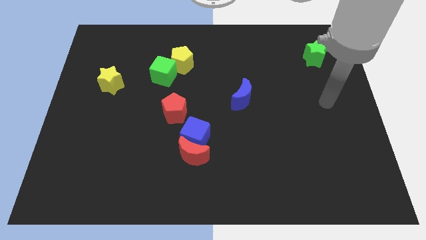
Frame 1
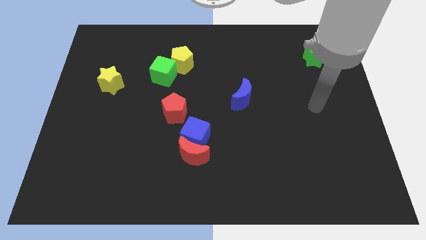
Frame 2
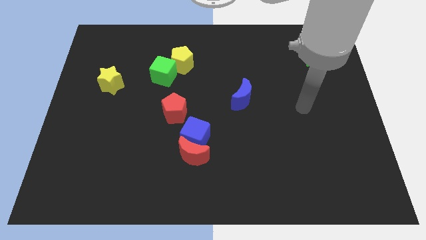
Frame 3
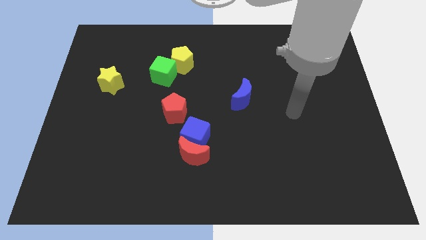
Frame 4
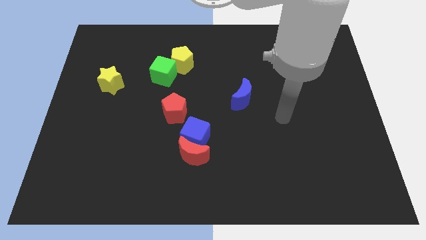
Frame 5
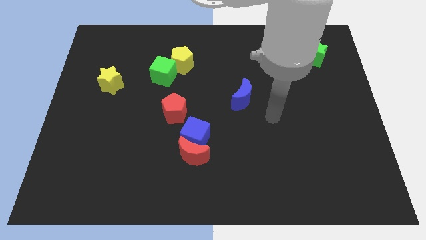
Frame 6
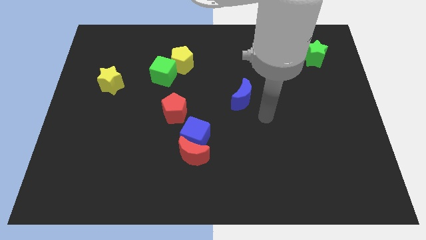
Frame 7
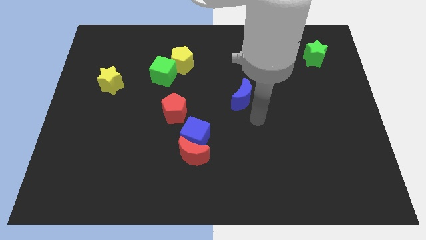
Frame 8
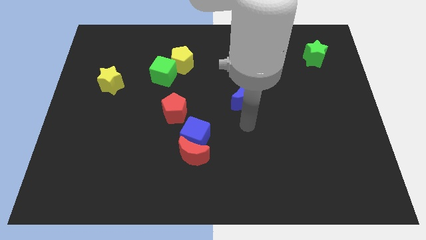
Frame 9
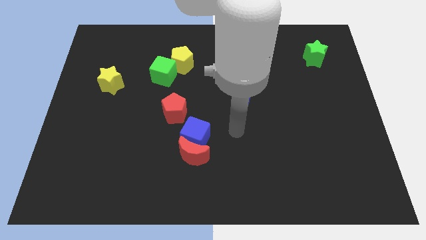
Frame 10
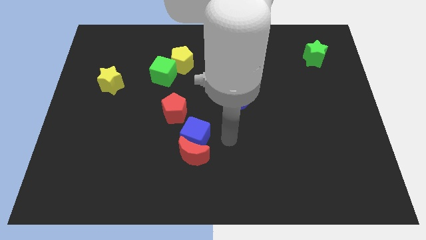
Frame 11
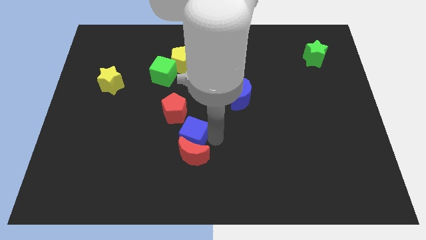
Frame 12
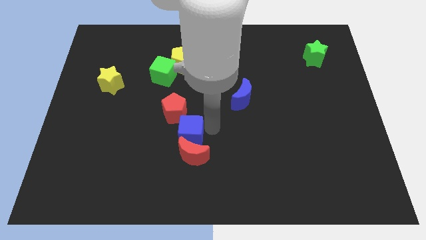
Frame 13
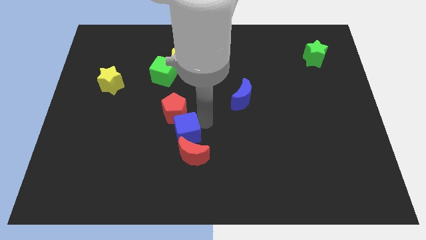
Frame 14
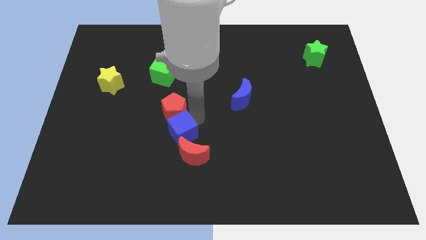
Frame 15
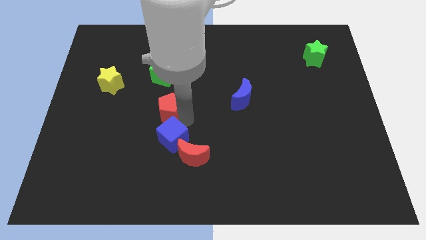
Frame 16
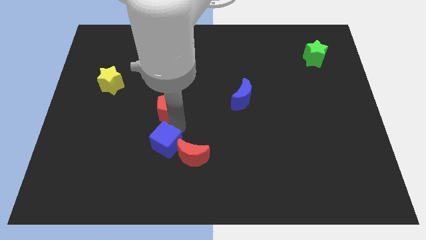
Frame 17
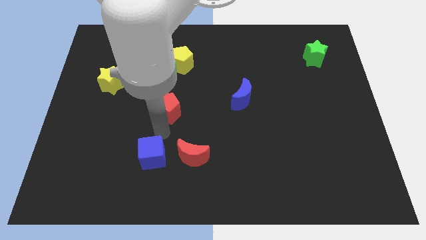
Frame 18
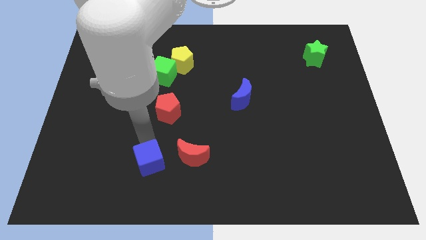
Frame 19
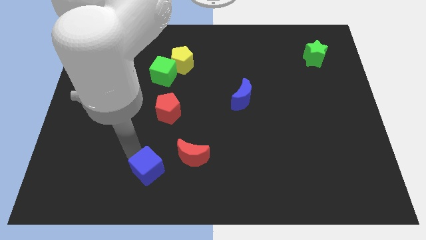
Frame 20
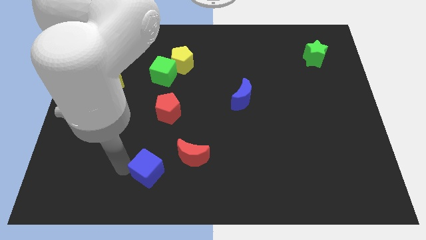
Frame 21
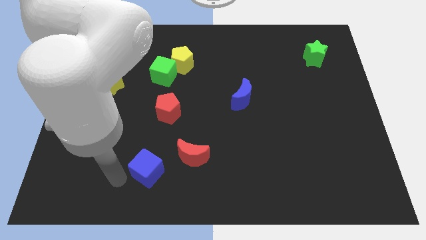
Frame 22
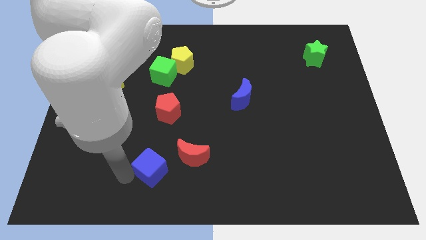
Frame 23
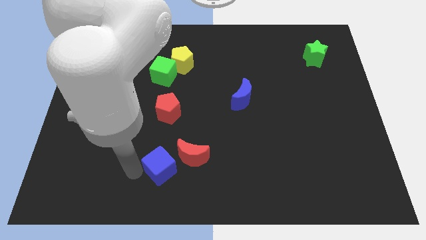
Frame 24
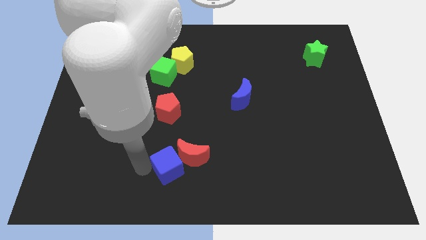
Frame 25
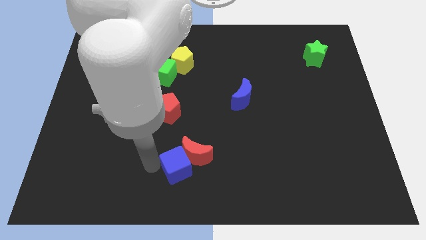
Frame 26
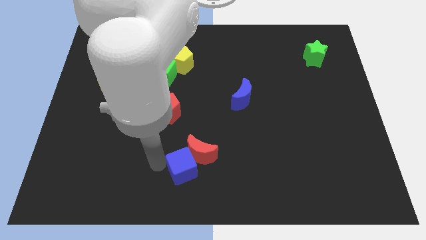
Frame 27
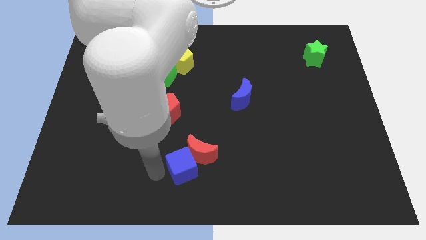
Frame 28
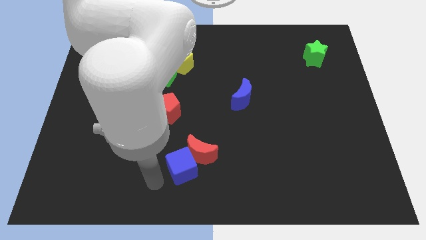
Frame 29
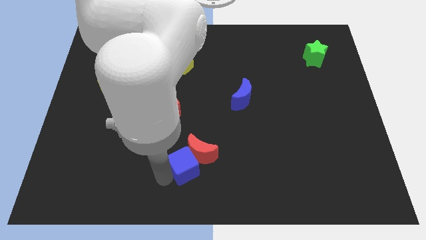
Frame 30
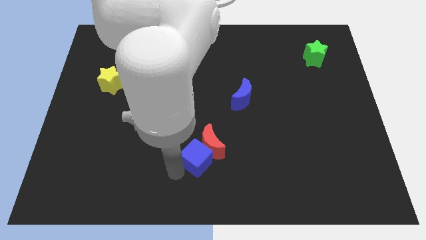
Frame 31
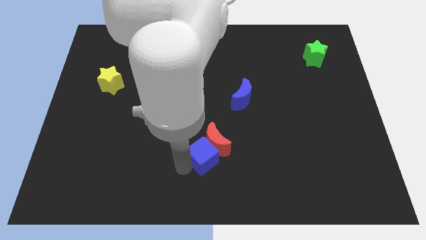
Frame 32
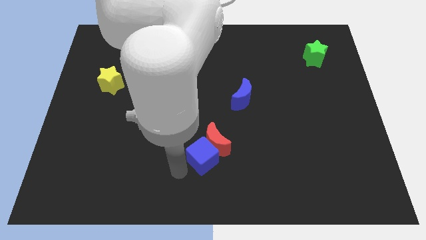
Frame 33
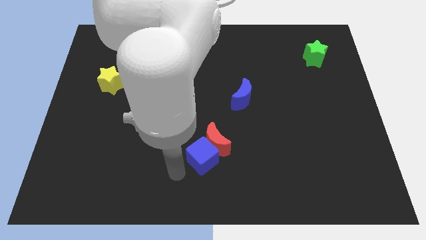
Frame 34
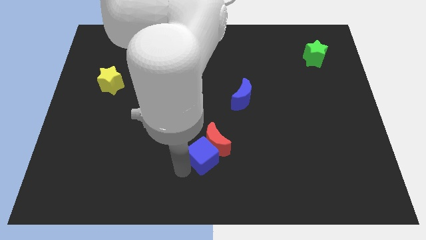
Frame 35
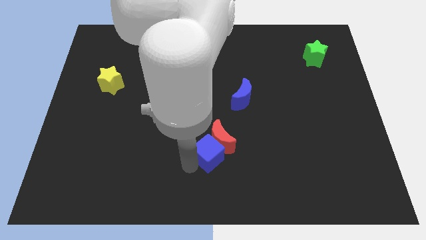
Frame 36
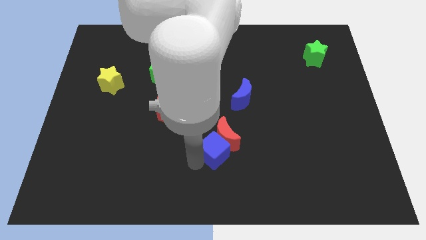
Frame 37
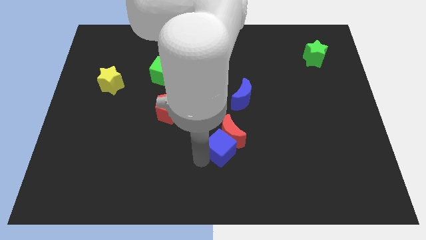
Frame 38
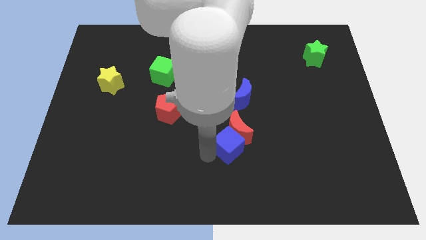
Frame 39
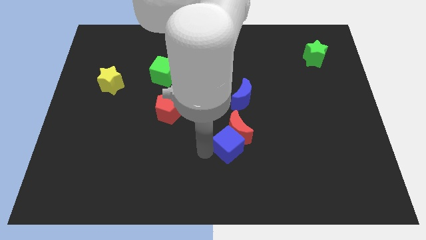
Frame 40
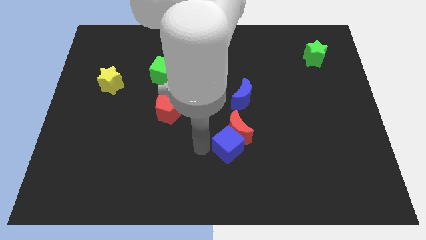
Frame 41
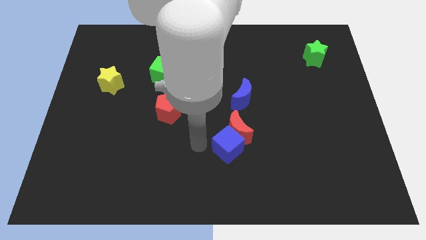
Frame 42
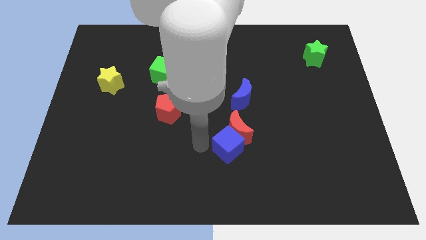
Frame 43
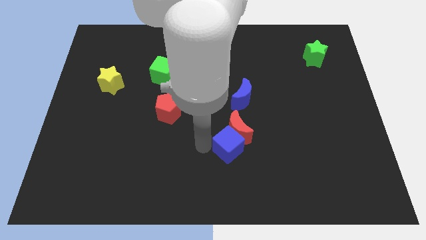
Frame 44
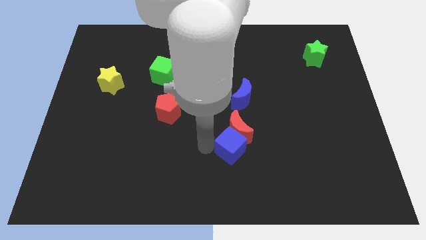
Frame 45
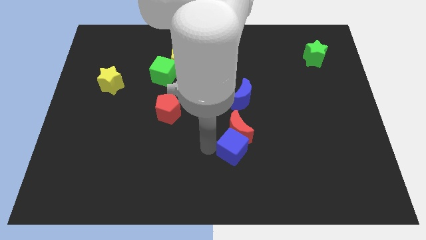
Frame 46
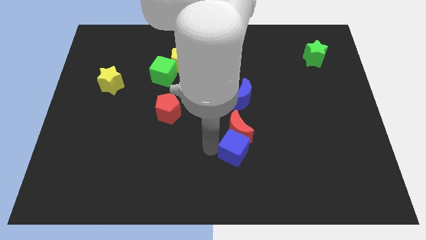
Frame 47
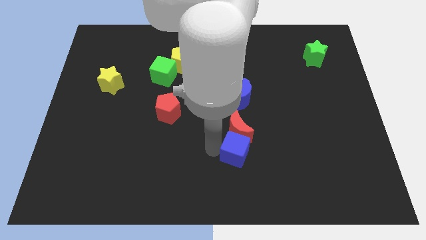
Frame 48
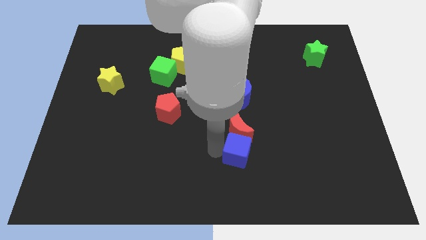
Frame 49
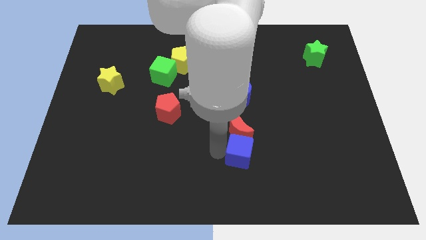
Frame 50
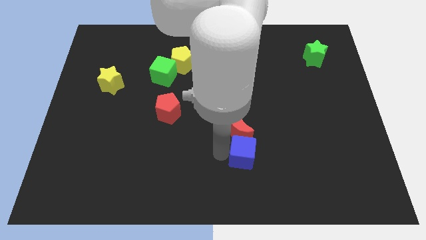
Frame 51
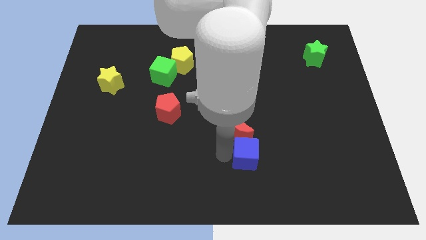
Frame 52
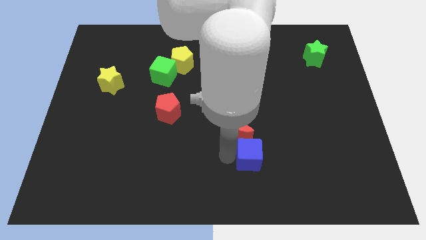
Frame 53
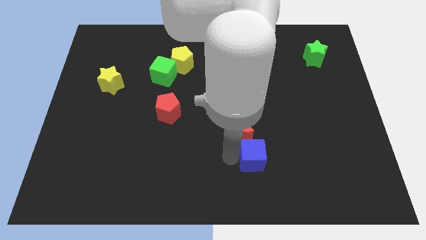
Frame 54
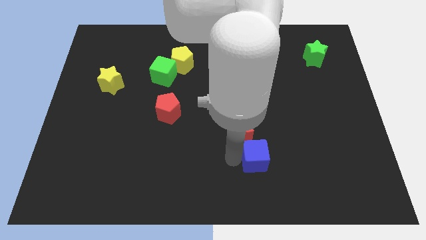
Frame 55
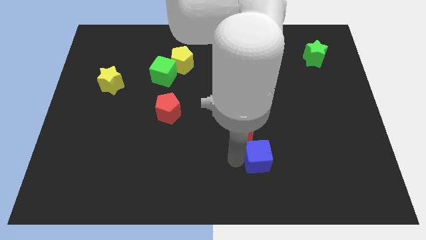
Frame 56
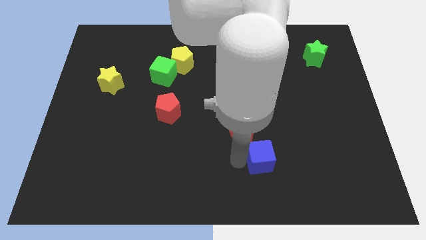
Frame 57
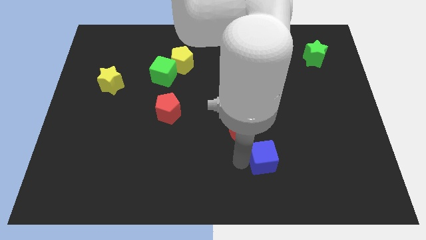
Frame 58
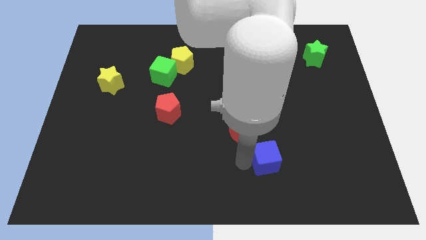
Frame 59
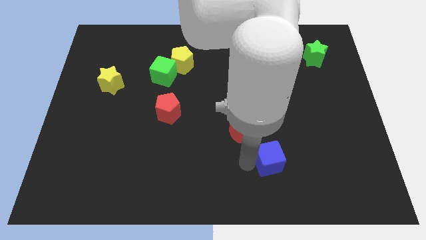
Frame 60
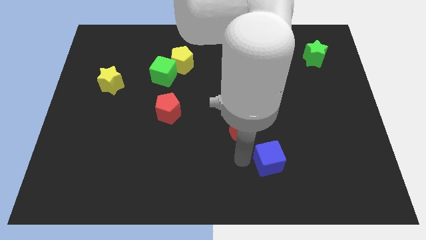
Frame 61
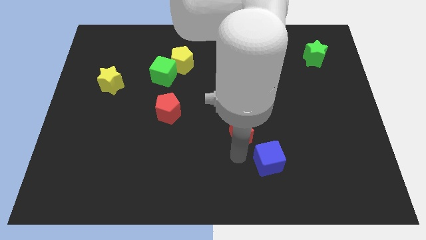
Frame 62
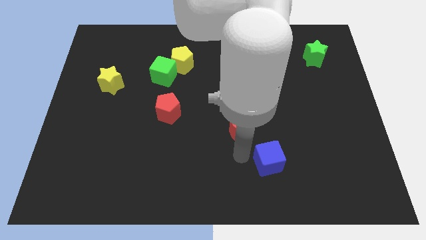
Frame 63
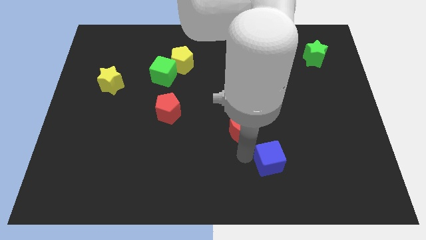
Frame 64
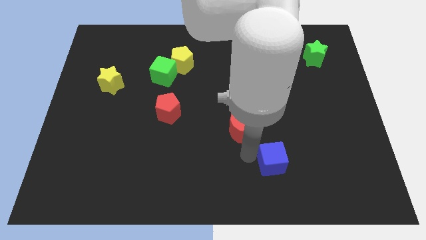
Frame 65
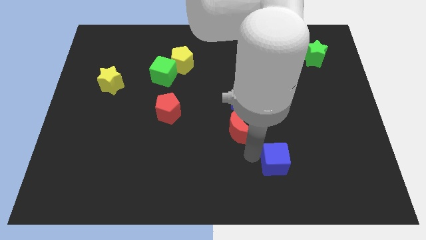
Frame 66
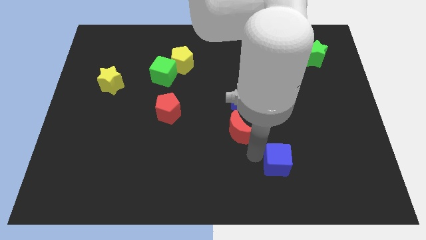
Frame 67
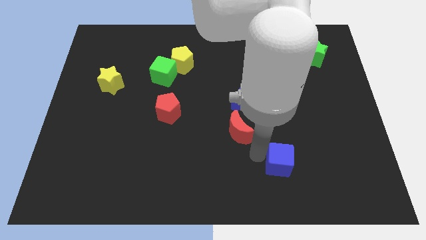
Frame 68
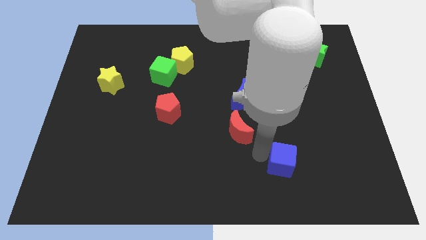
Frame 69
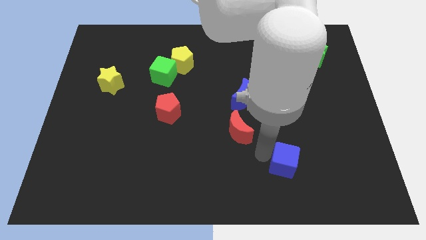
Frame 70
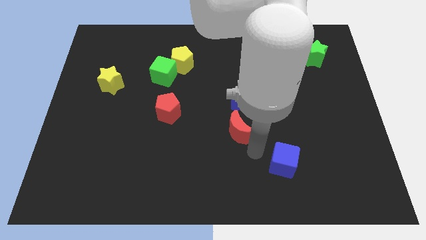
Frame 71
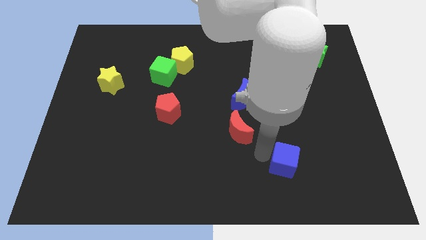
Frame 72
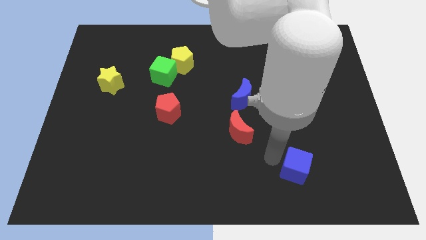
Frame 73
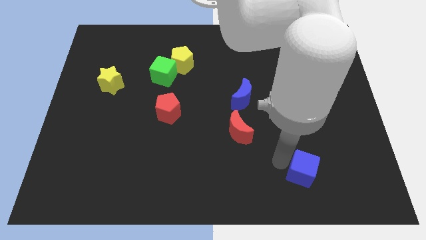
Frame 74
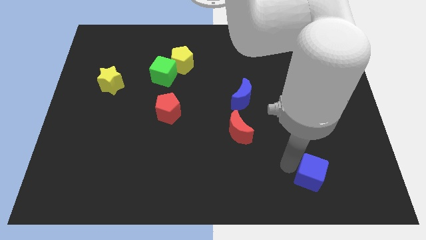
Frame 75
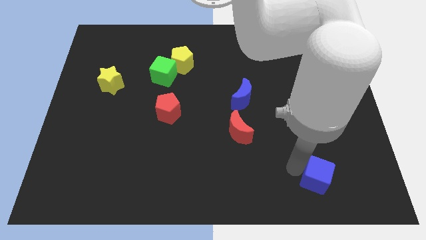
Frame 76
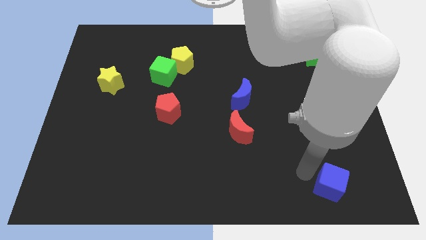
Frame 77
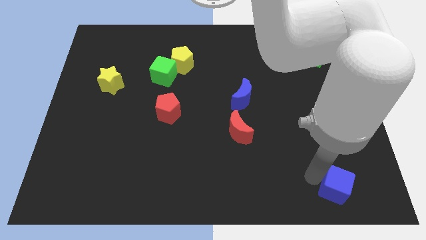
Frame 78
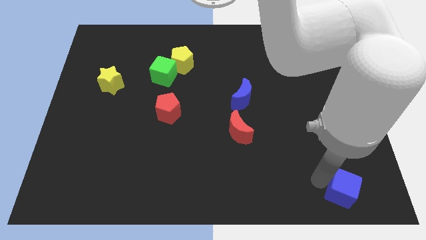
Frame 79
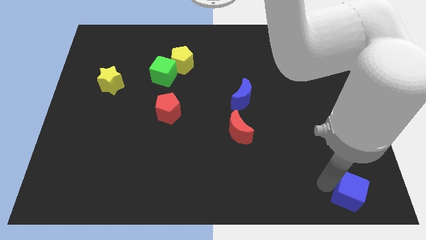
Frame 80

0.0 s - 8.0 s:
put the blue cube to the lower right corner
